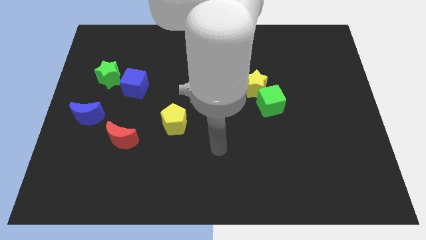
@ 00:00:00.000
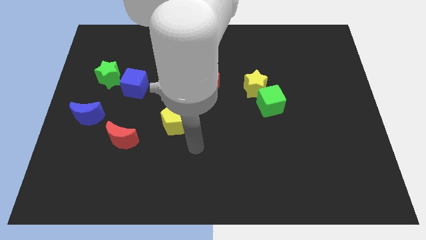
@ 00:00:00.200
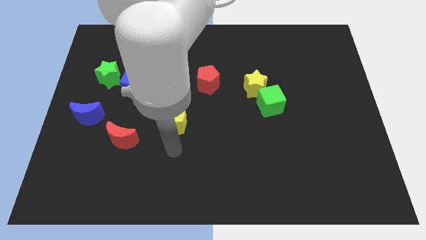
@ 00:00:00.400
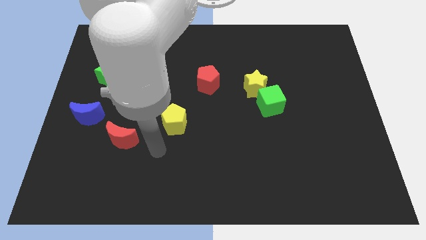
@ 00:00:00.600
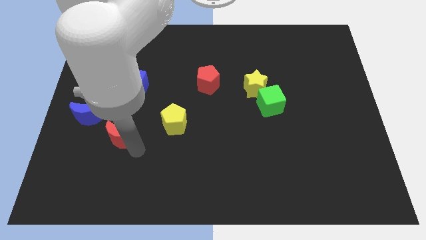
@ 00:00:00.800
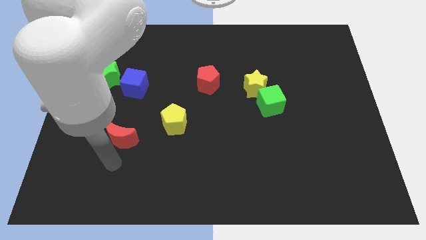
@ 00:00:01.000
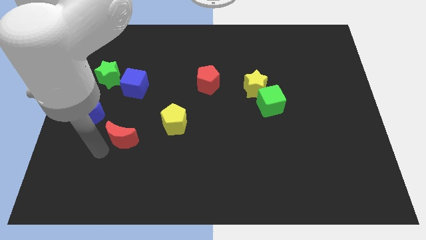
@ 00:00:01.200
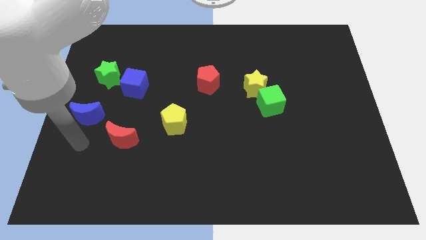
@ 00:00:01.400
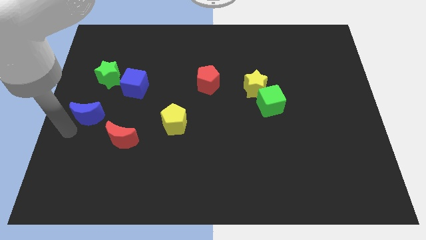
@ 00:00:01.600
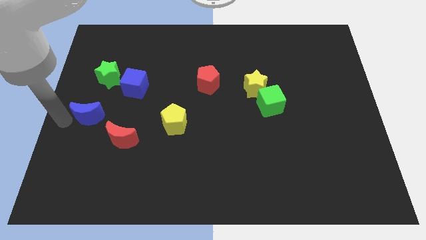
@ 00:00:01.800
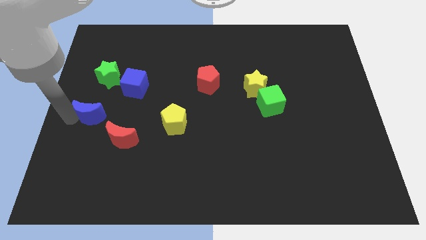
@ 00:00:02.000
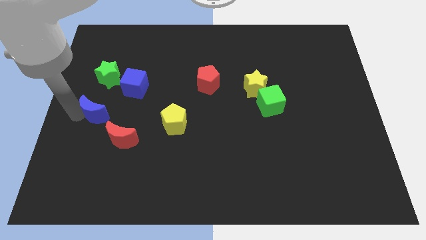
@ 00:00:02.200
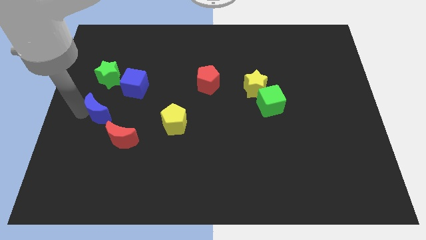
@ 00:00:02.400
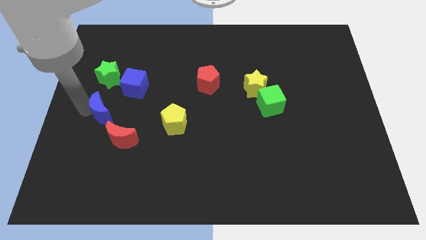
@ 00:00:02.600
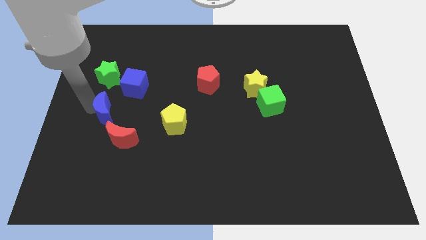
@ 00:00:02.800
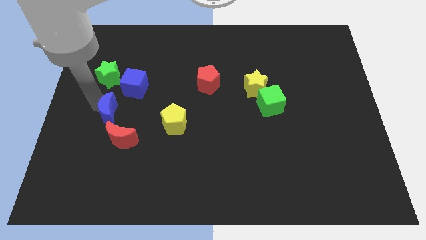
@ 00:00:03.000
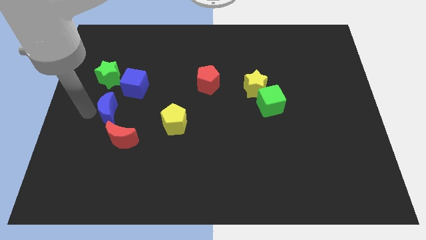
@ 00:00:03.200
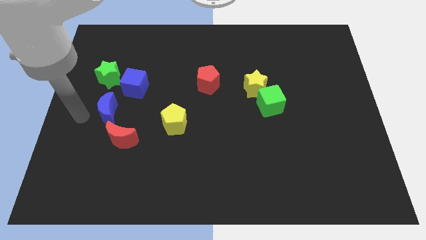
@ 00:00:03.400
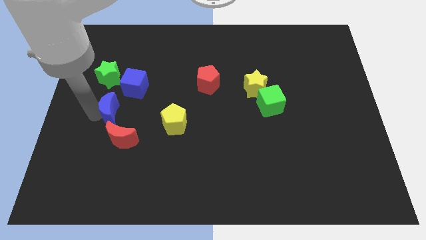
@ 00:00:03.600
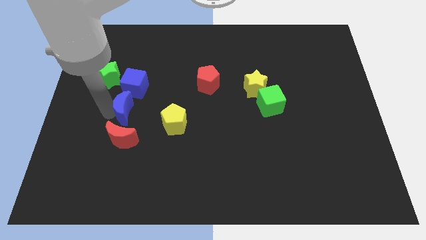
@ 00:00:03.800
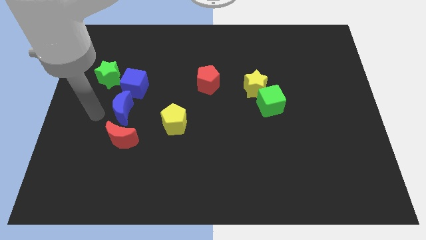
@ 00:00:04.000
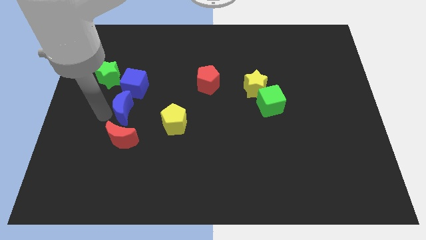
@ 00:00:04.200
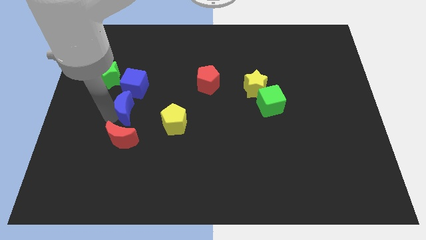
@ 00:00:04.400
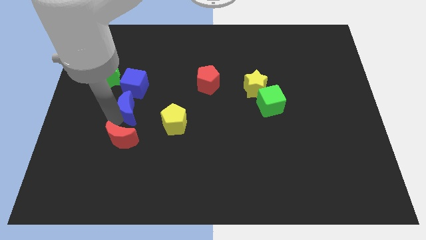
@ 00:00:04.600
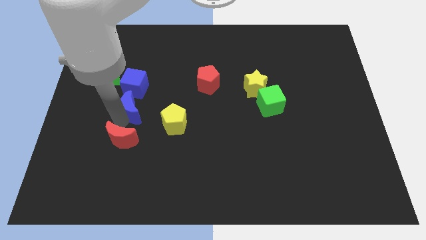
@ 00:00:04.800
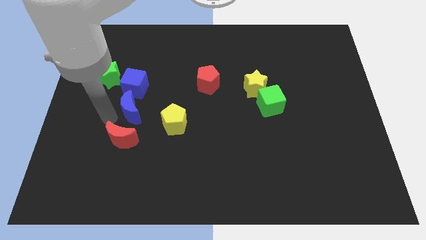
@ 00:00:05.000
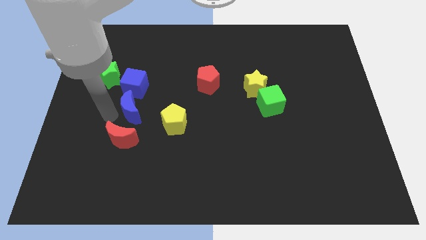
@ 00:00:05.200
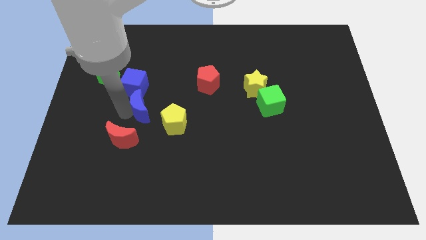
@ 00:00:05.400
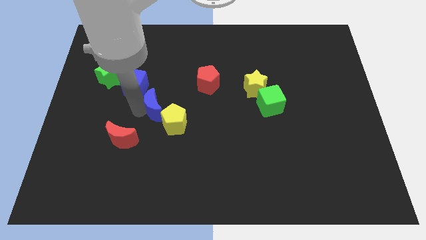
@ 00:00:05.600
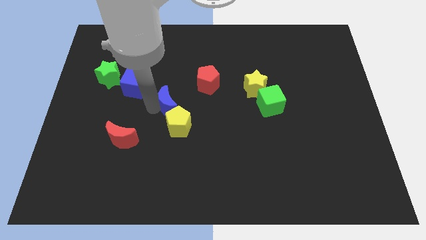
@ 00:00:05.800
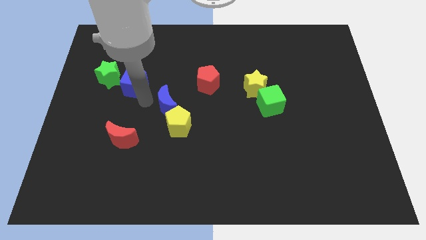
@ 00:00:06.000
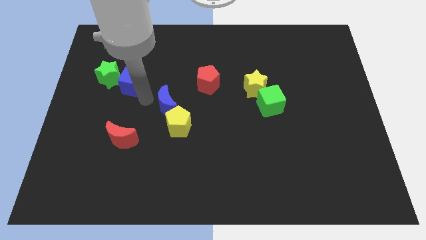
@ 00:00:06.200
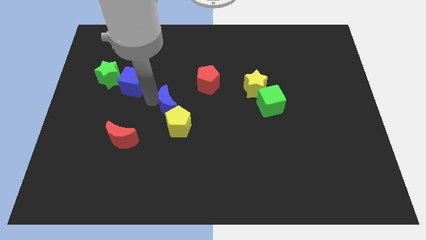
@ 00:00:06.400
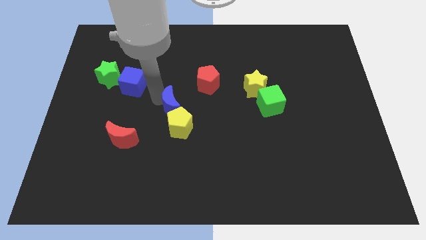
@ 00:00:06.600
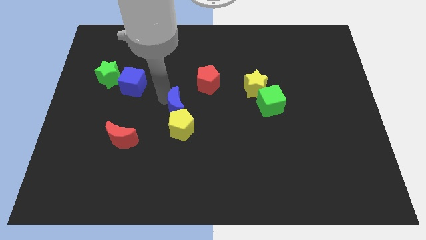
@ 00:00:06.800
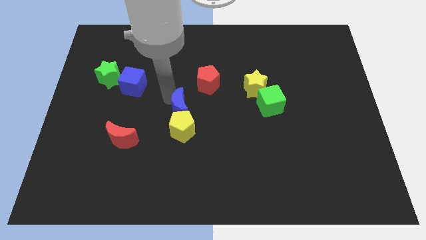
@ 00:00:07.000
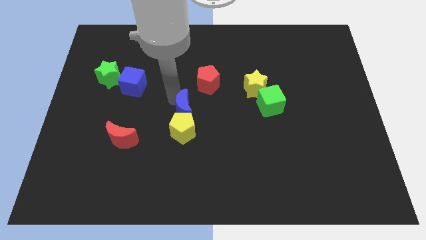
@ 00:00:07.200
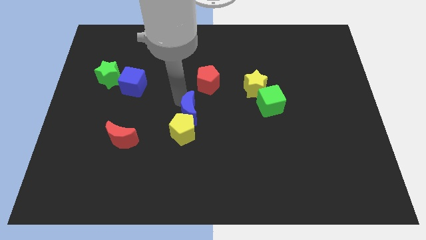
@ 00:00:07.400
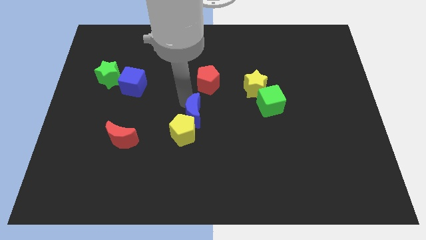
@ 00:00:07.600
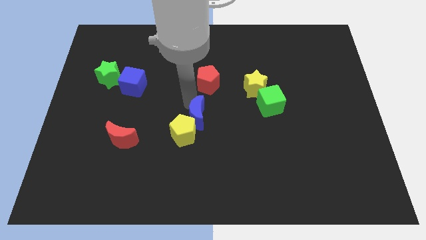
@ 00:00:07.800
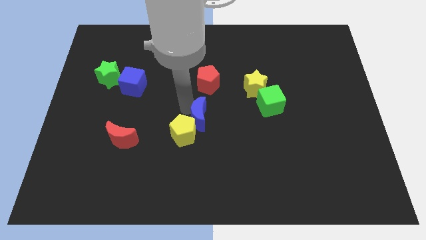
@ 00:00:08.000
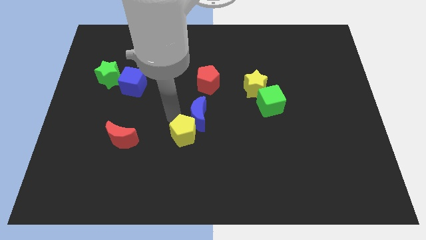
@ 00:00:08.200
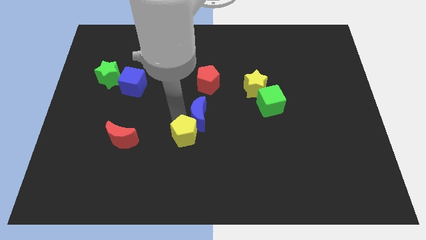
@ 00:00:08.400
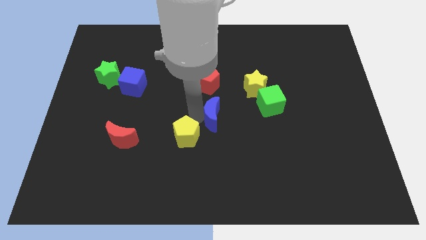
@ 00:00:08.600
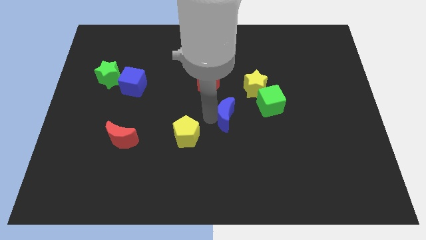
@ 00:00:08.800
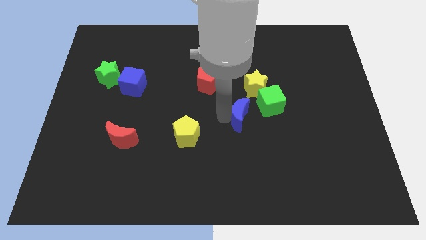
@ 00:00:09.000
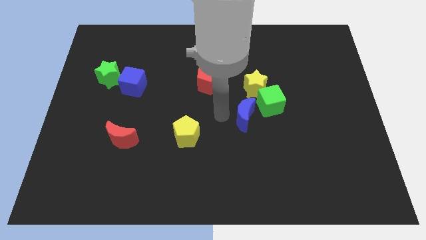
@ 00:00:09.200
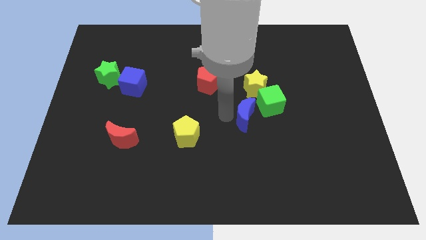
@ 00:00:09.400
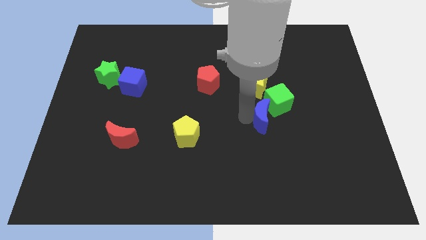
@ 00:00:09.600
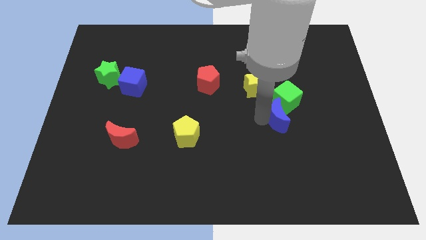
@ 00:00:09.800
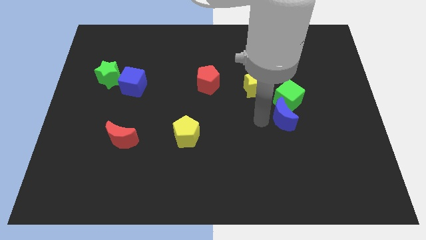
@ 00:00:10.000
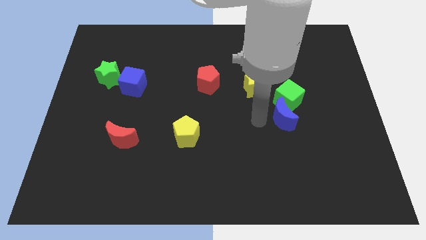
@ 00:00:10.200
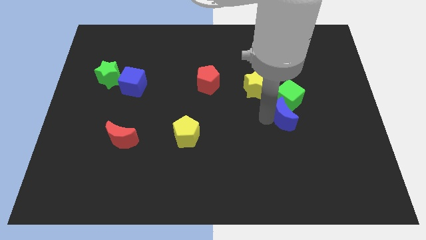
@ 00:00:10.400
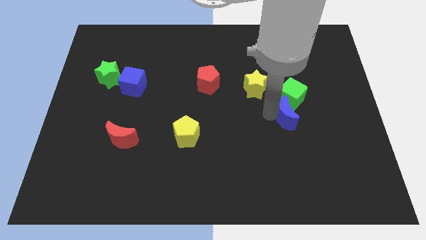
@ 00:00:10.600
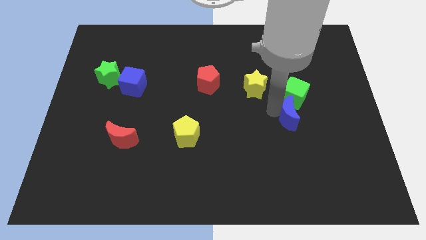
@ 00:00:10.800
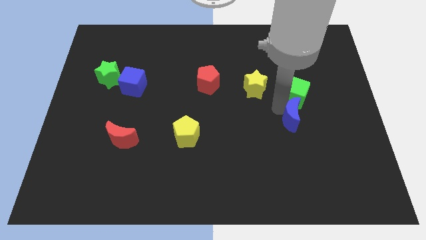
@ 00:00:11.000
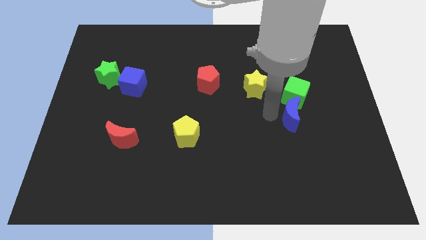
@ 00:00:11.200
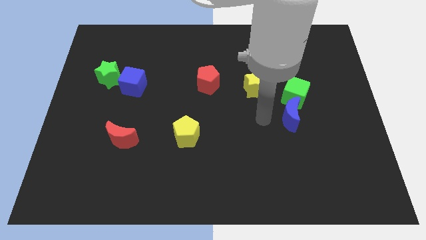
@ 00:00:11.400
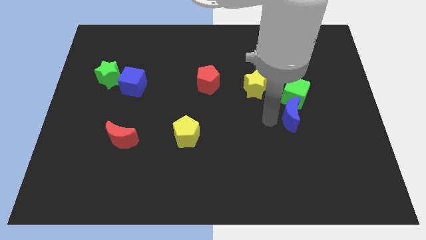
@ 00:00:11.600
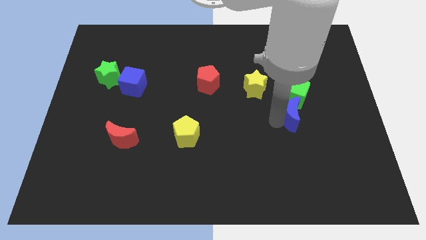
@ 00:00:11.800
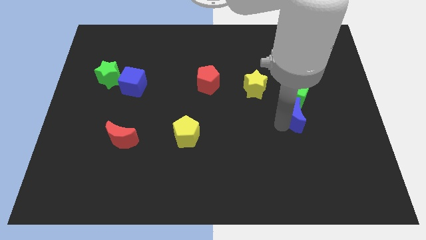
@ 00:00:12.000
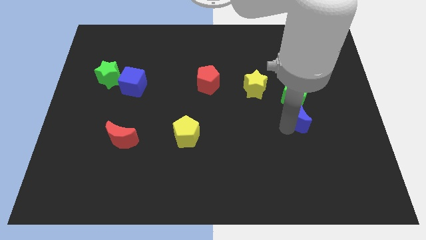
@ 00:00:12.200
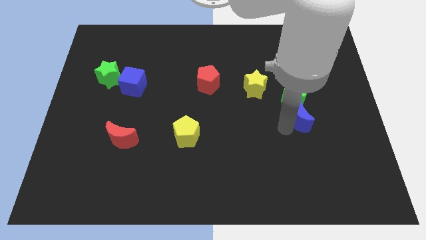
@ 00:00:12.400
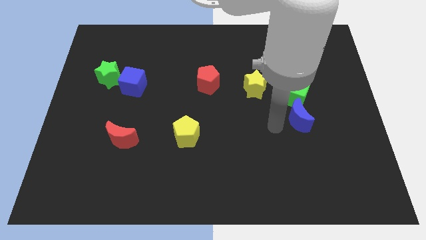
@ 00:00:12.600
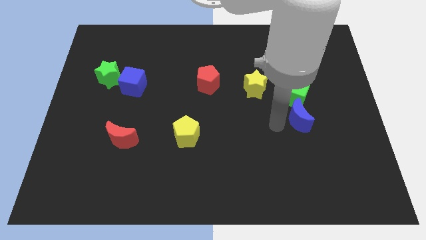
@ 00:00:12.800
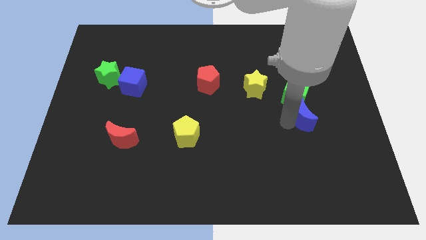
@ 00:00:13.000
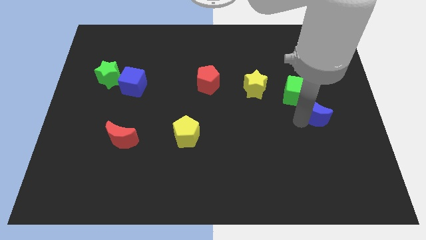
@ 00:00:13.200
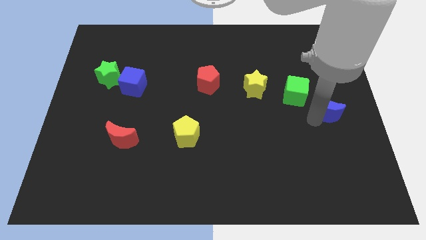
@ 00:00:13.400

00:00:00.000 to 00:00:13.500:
slide the blue moon to the right side of the board
